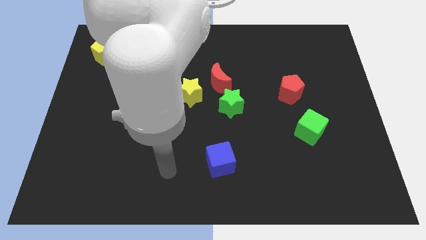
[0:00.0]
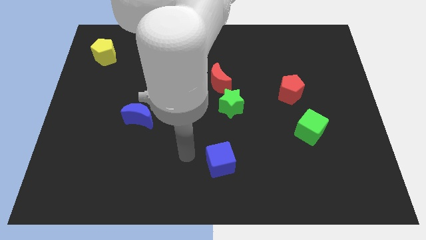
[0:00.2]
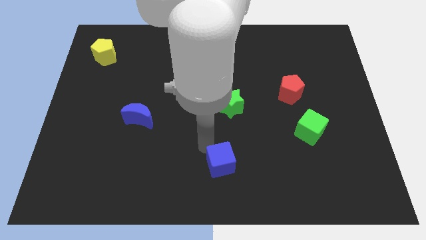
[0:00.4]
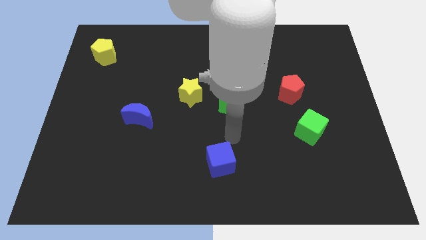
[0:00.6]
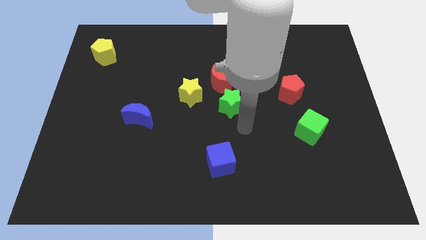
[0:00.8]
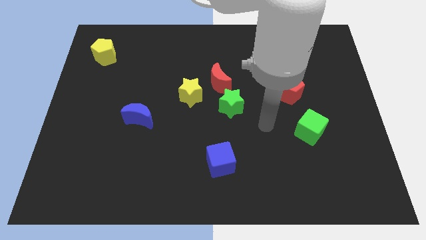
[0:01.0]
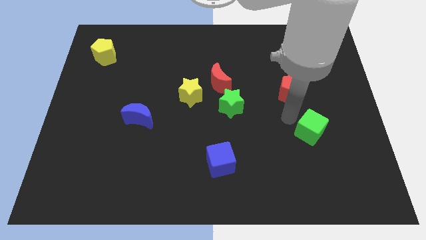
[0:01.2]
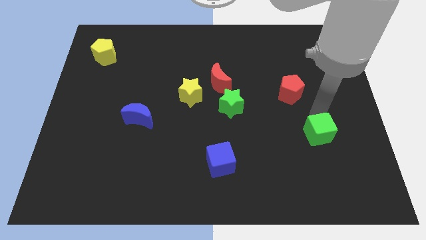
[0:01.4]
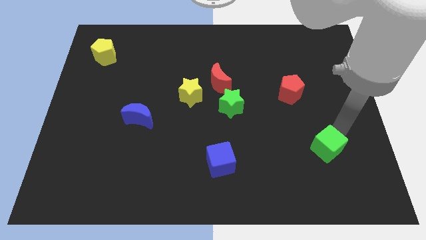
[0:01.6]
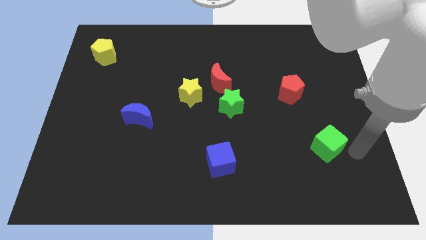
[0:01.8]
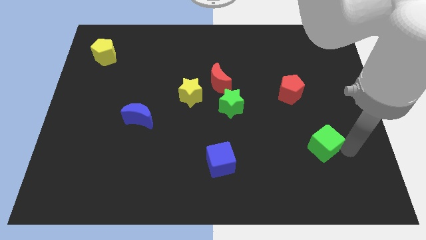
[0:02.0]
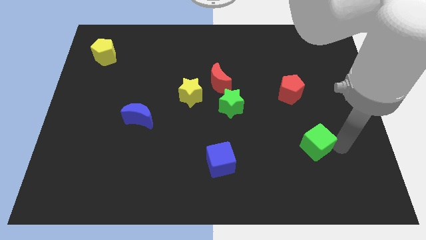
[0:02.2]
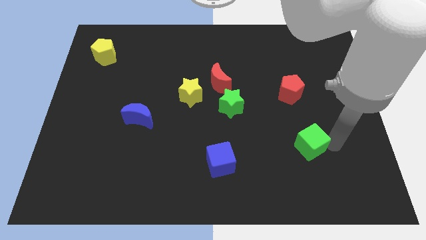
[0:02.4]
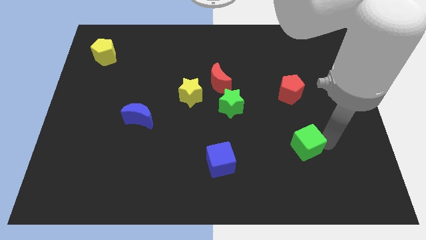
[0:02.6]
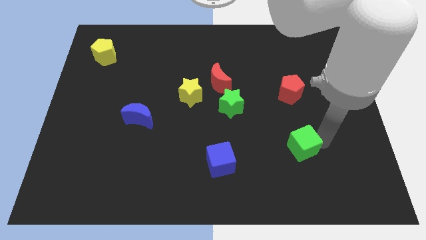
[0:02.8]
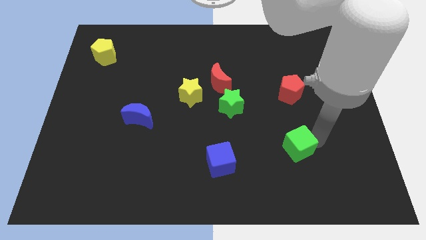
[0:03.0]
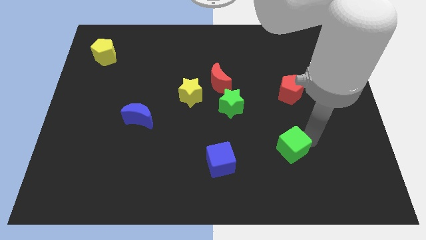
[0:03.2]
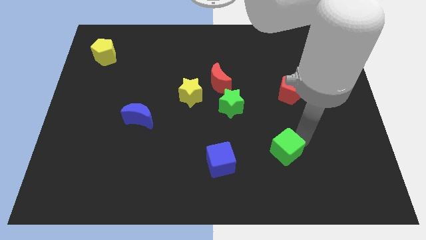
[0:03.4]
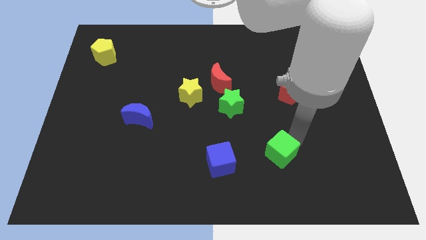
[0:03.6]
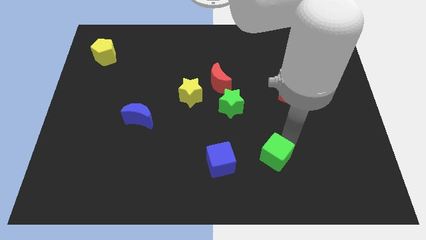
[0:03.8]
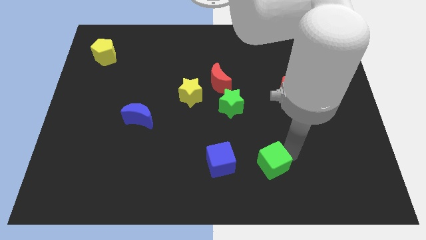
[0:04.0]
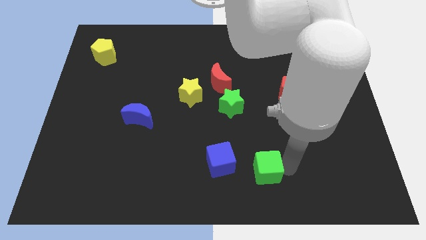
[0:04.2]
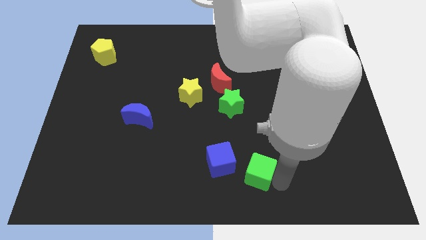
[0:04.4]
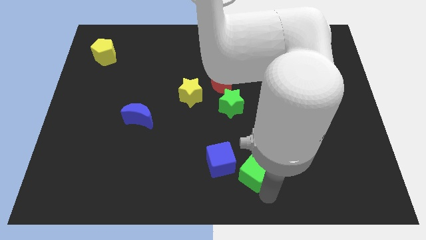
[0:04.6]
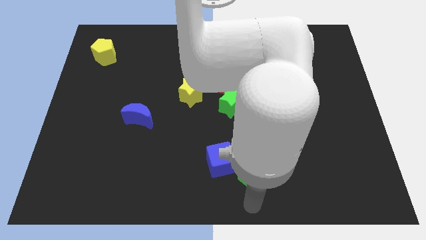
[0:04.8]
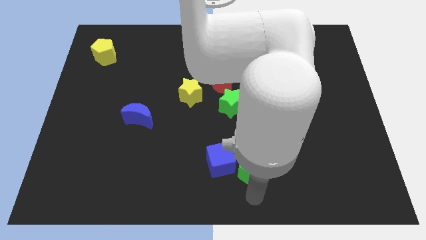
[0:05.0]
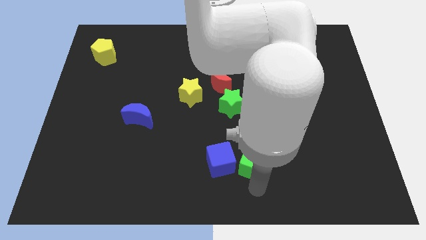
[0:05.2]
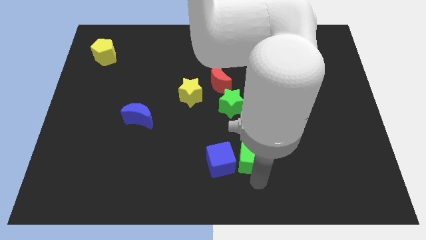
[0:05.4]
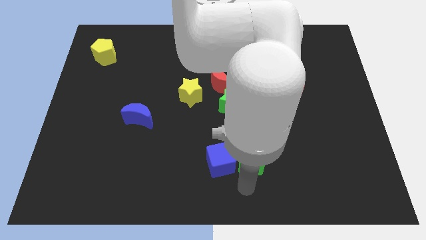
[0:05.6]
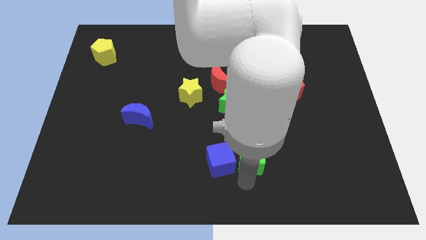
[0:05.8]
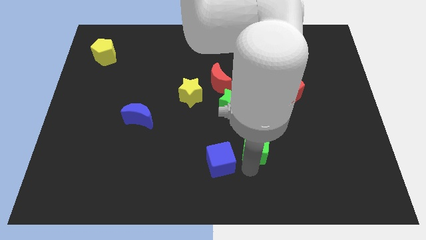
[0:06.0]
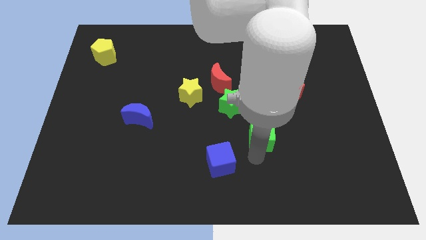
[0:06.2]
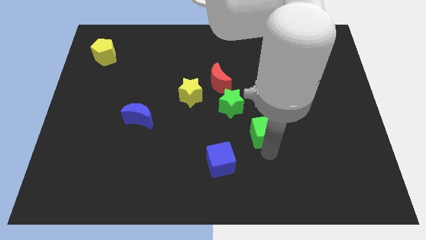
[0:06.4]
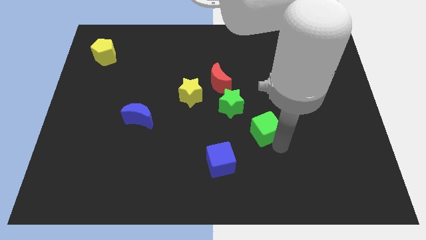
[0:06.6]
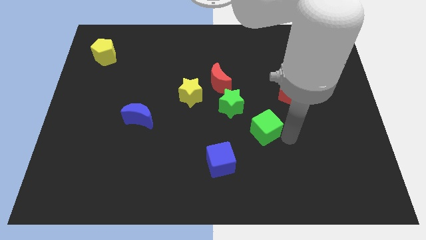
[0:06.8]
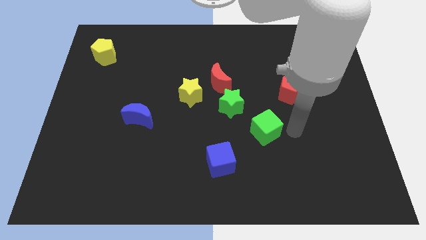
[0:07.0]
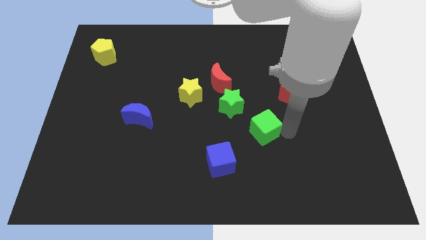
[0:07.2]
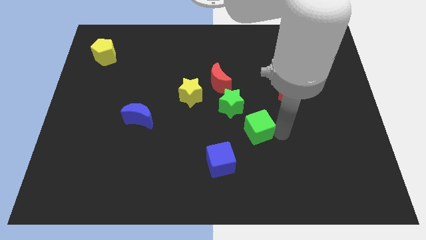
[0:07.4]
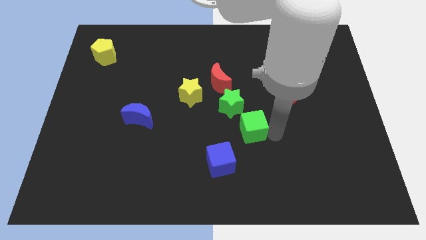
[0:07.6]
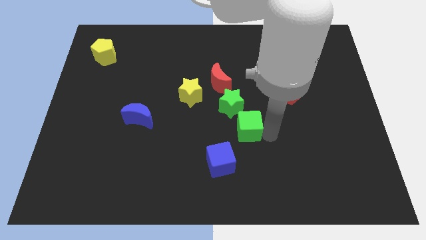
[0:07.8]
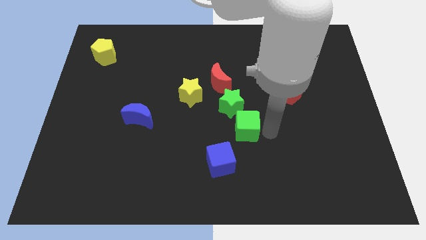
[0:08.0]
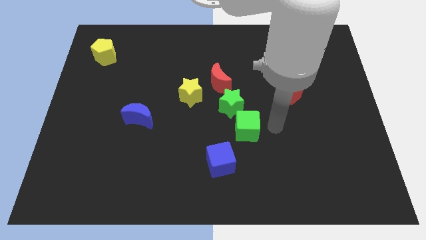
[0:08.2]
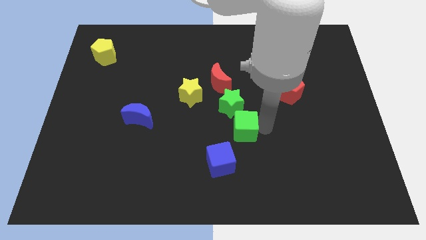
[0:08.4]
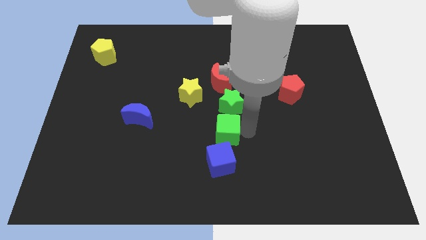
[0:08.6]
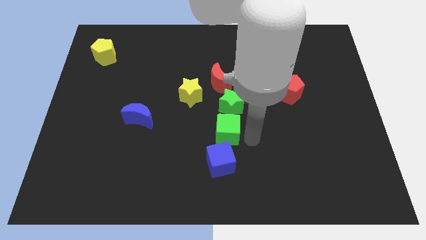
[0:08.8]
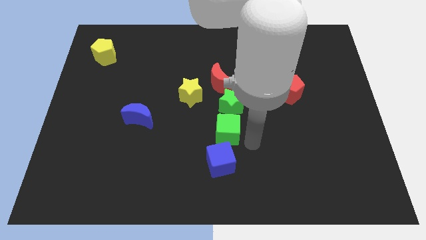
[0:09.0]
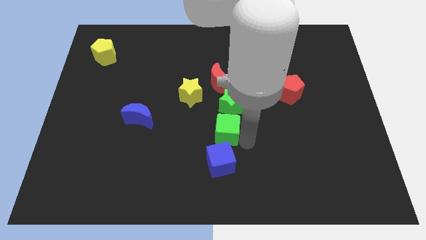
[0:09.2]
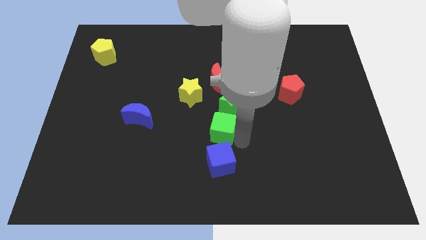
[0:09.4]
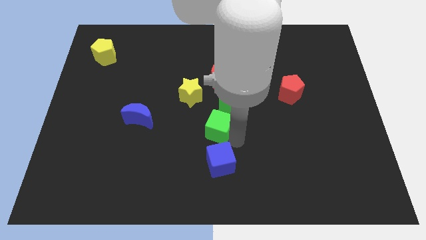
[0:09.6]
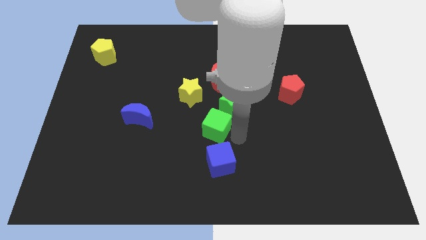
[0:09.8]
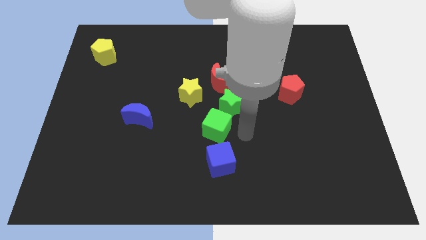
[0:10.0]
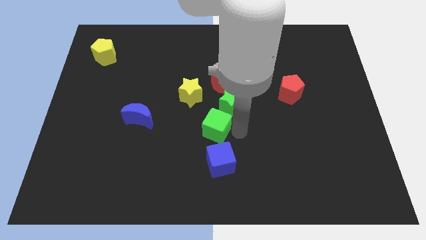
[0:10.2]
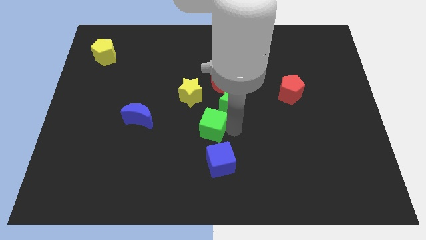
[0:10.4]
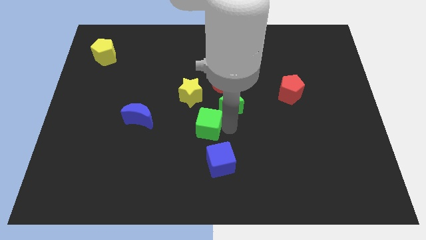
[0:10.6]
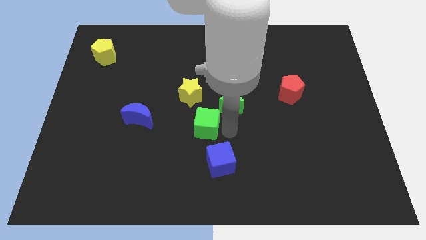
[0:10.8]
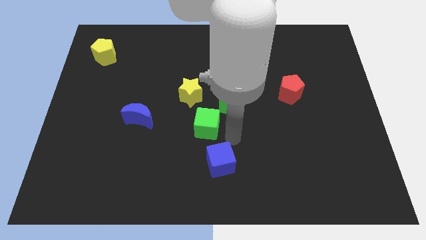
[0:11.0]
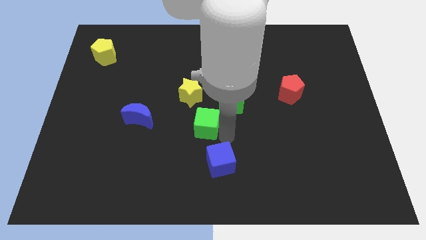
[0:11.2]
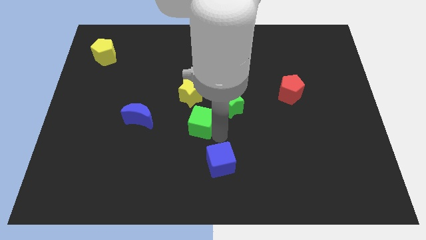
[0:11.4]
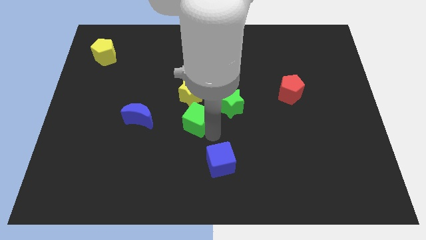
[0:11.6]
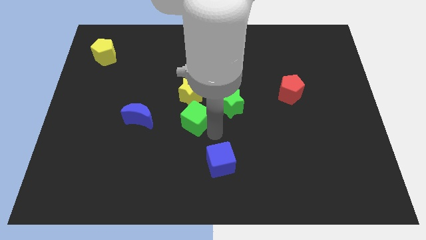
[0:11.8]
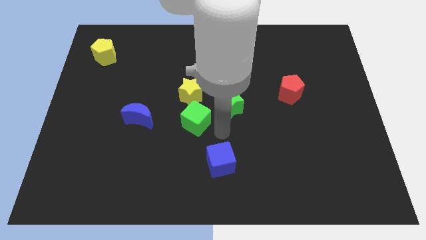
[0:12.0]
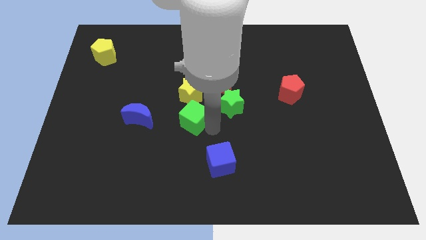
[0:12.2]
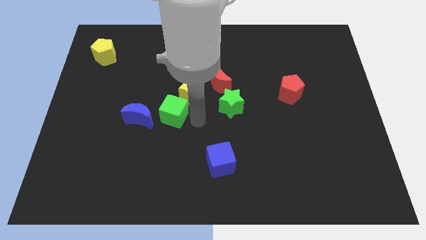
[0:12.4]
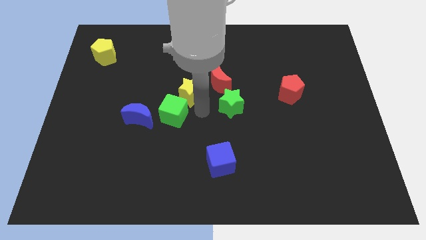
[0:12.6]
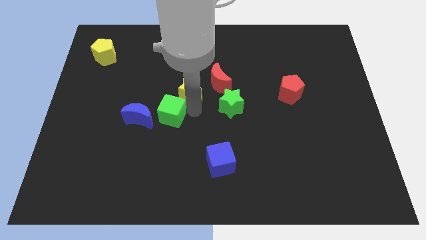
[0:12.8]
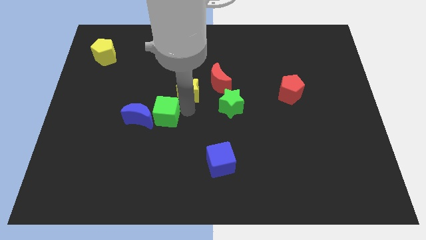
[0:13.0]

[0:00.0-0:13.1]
move the green cube close to the blue moon
